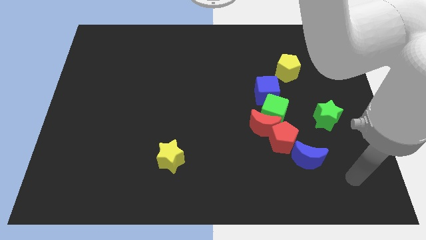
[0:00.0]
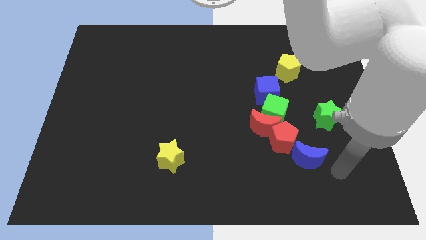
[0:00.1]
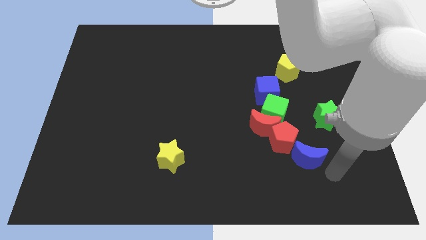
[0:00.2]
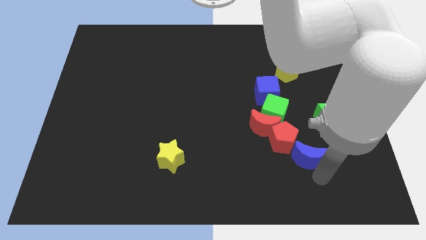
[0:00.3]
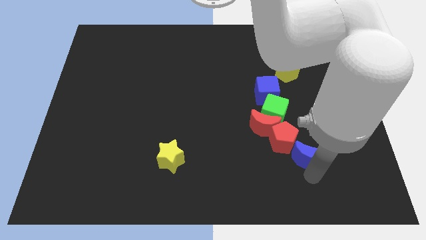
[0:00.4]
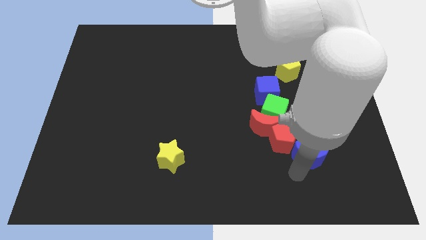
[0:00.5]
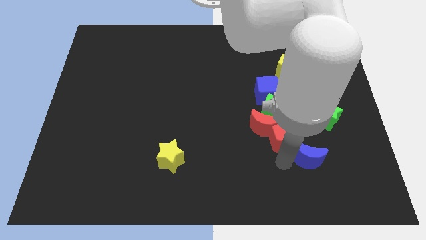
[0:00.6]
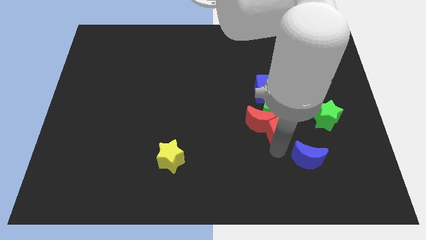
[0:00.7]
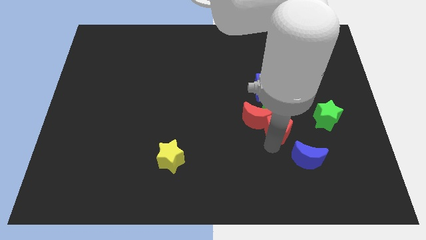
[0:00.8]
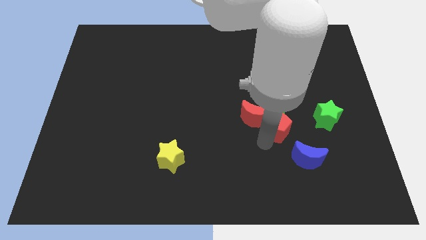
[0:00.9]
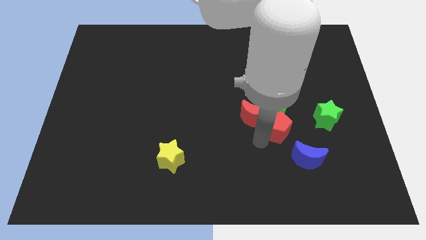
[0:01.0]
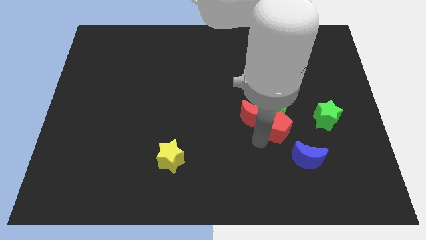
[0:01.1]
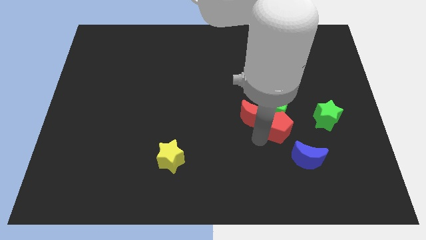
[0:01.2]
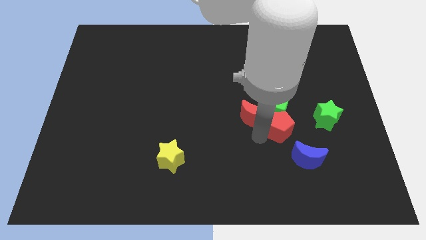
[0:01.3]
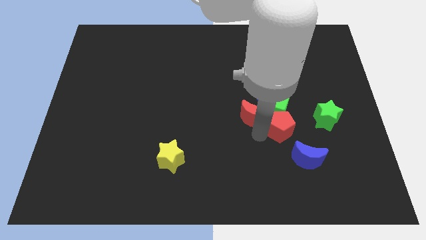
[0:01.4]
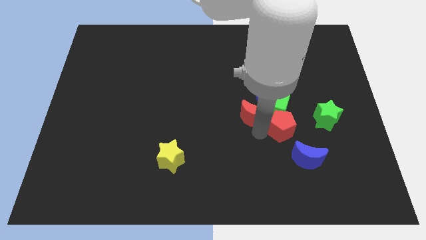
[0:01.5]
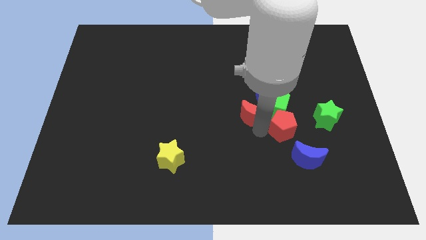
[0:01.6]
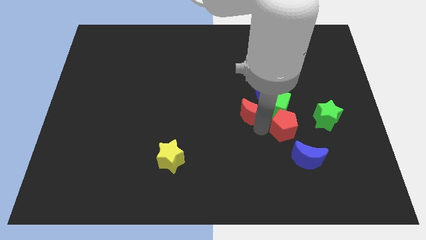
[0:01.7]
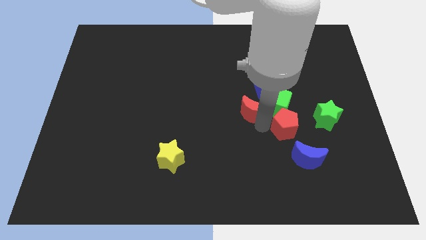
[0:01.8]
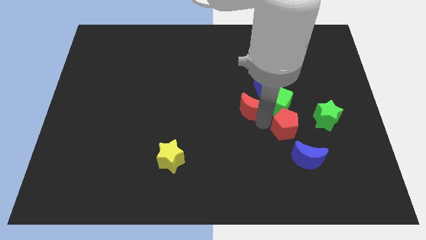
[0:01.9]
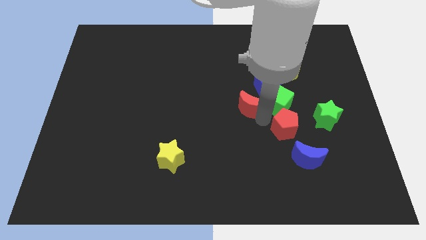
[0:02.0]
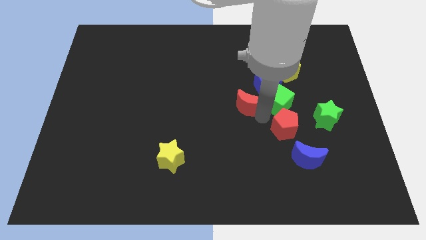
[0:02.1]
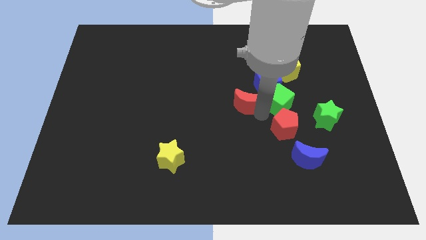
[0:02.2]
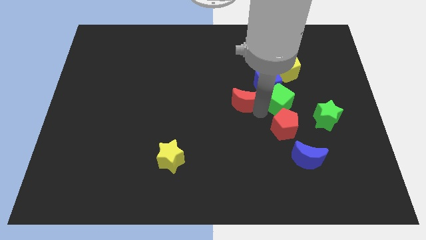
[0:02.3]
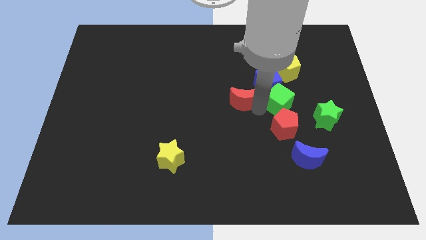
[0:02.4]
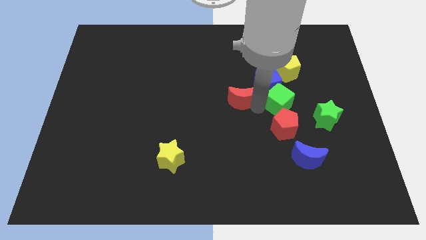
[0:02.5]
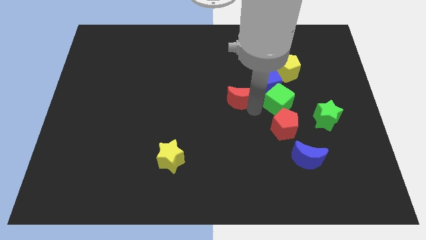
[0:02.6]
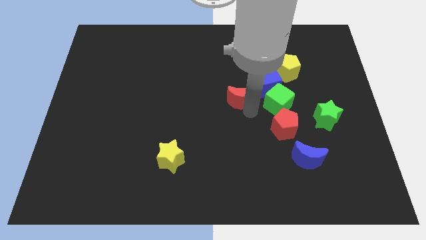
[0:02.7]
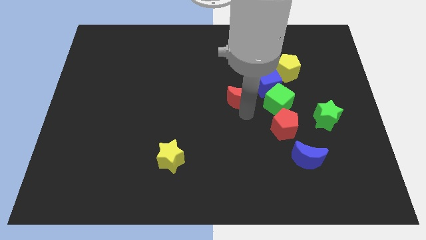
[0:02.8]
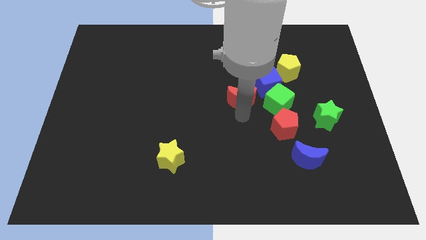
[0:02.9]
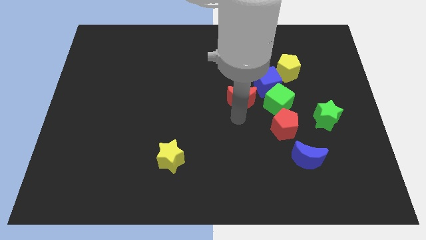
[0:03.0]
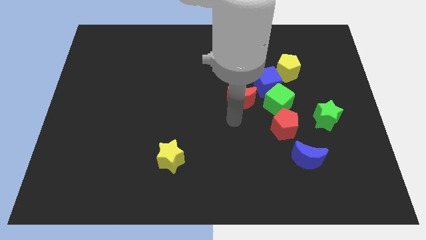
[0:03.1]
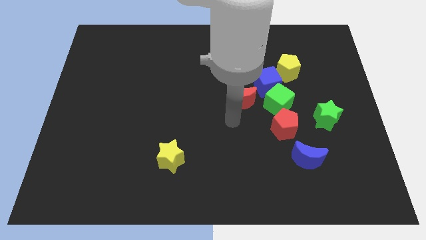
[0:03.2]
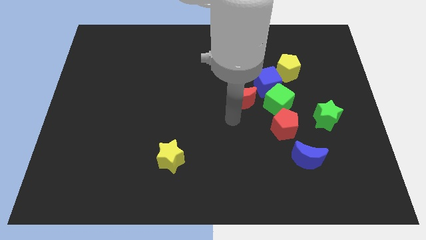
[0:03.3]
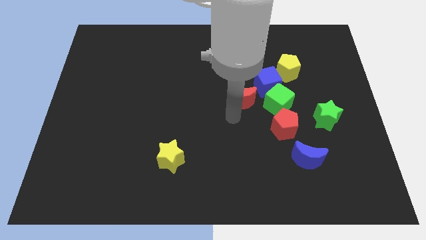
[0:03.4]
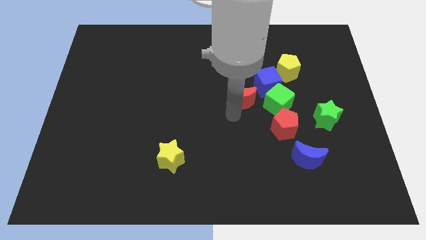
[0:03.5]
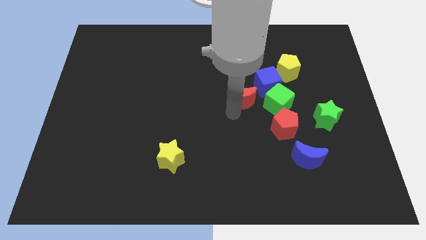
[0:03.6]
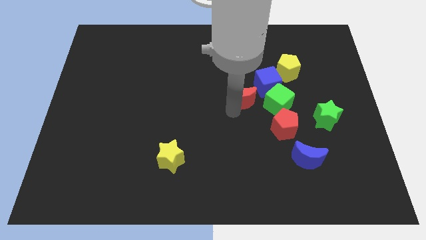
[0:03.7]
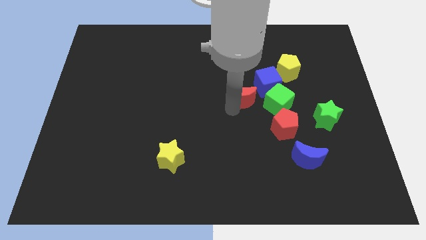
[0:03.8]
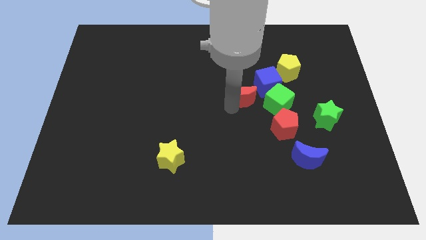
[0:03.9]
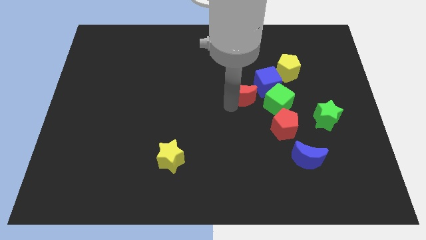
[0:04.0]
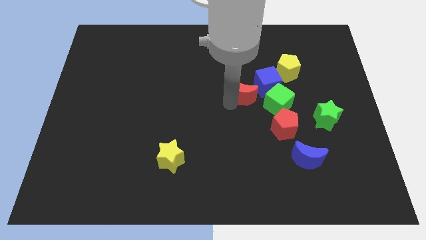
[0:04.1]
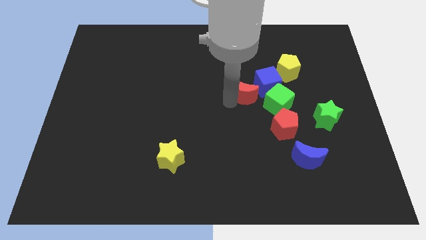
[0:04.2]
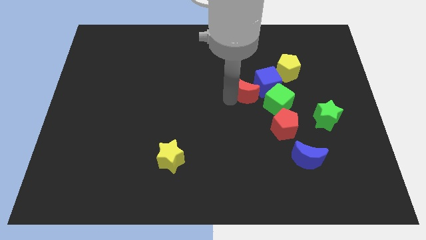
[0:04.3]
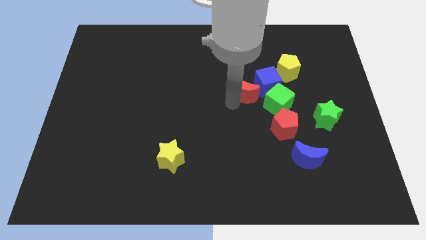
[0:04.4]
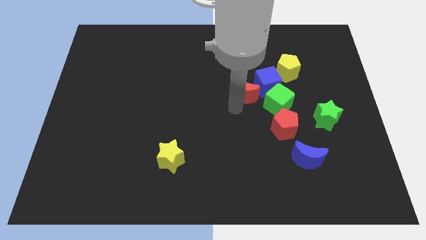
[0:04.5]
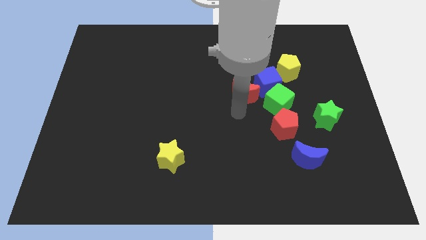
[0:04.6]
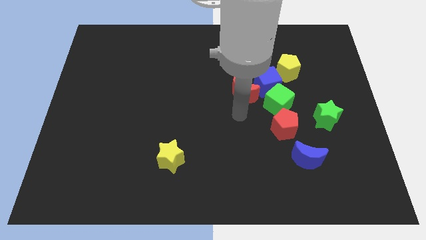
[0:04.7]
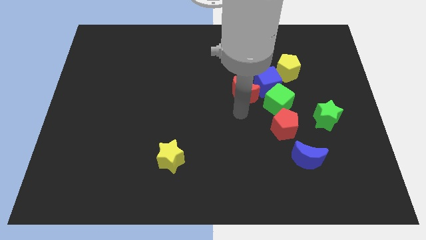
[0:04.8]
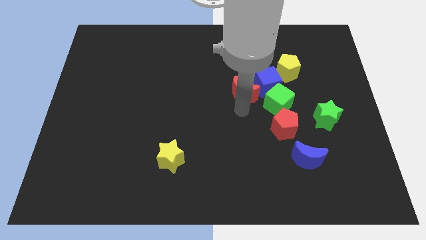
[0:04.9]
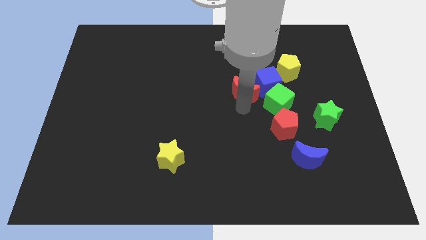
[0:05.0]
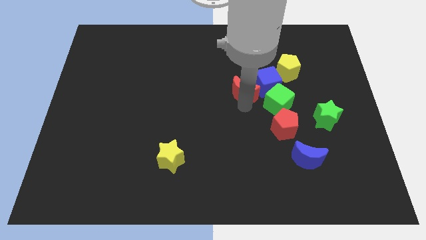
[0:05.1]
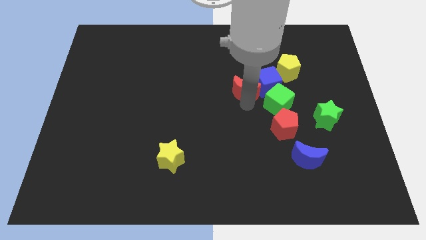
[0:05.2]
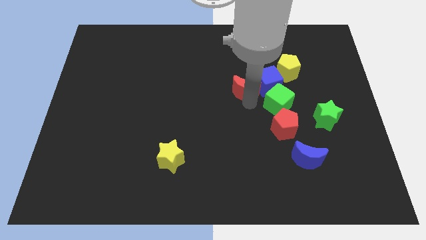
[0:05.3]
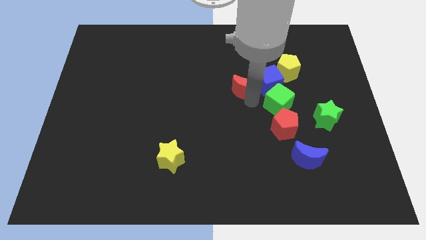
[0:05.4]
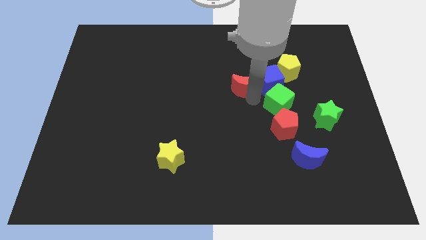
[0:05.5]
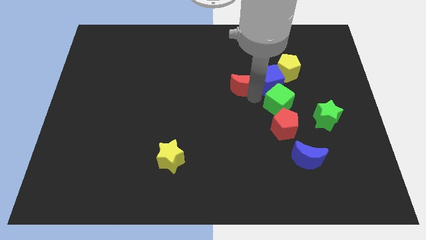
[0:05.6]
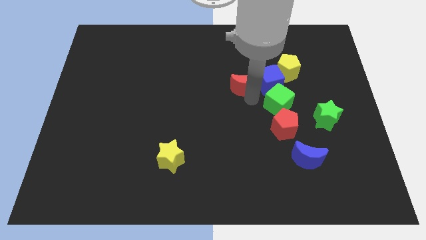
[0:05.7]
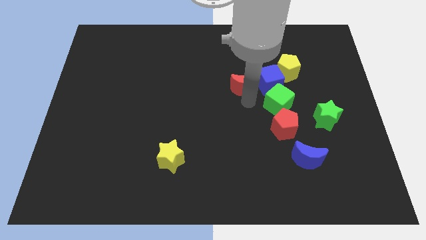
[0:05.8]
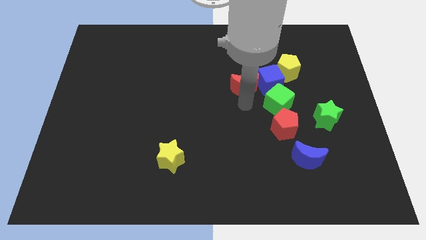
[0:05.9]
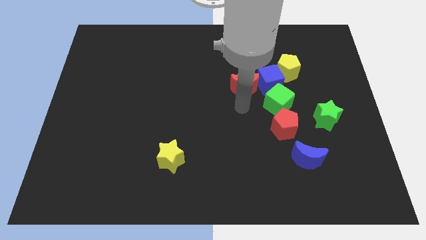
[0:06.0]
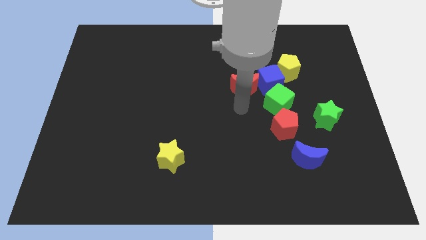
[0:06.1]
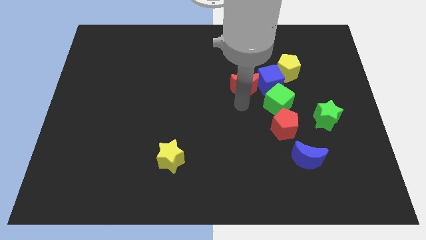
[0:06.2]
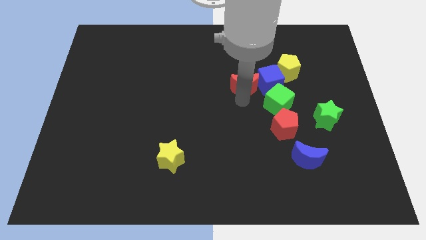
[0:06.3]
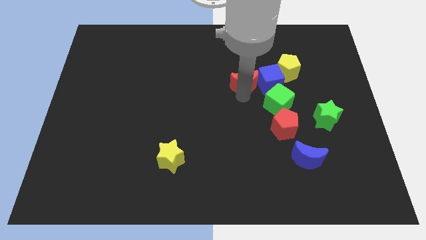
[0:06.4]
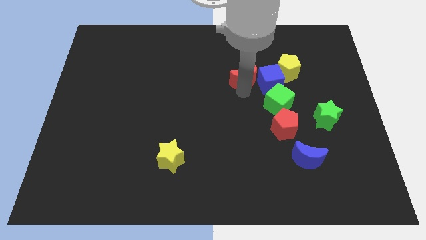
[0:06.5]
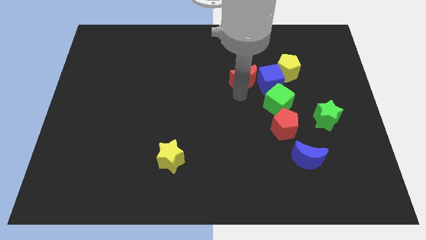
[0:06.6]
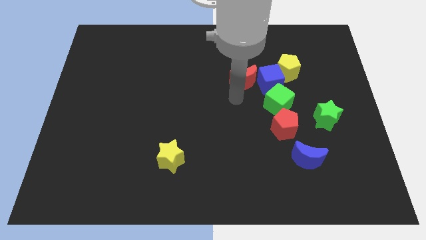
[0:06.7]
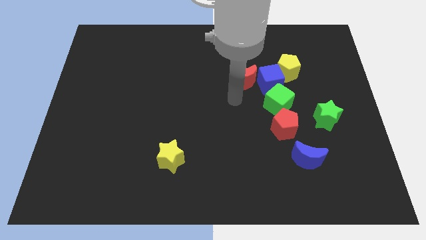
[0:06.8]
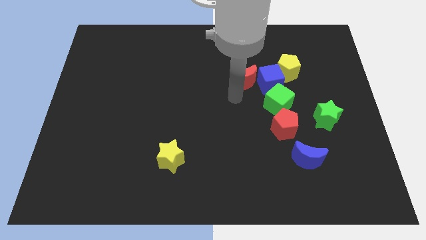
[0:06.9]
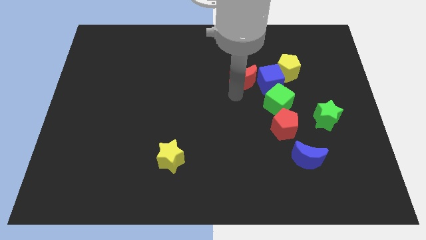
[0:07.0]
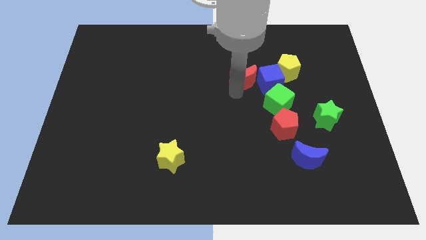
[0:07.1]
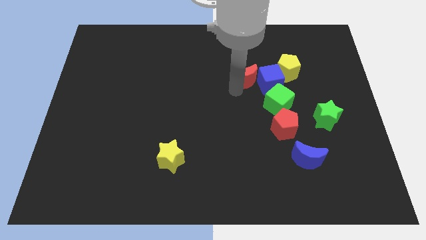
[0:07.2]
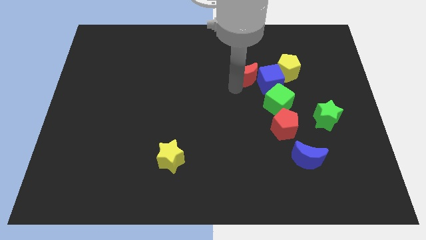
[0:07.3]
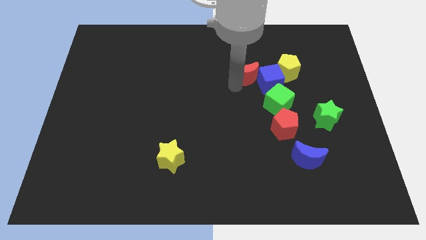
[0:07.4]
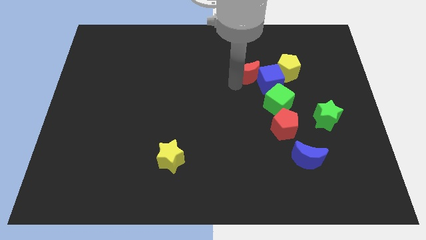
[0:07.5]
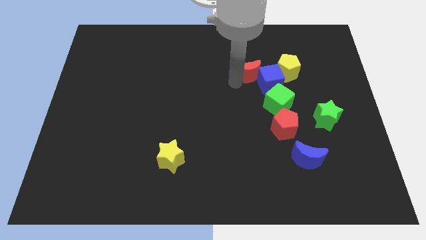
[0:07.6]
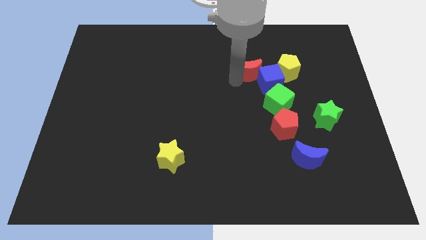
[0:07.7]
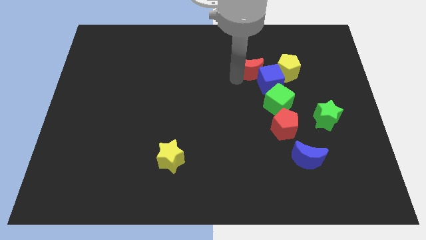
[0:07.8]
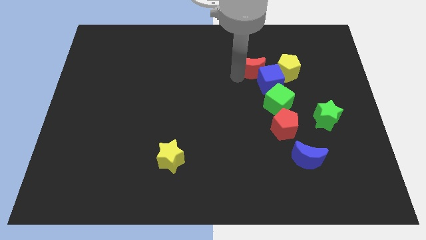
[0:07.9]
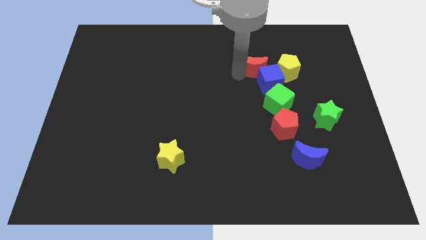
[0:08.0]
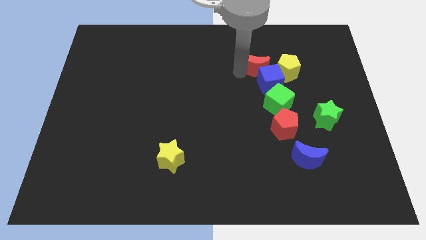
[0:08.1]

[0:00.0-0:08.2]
move the red moon to the top left of the yellow pentagon
